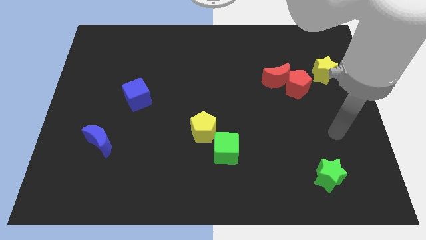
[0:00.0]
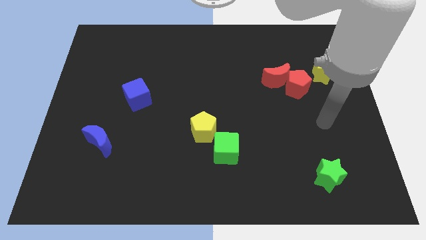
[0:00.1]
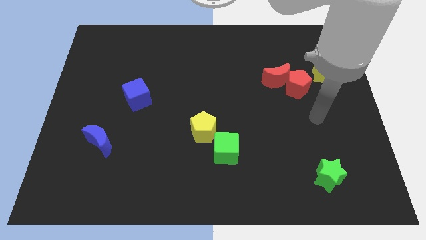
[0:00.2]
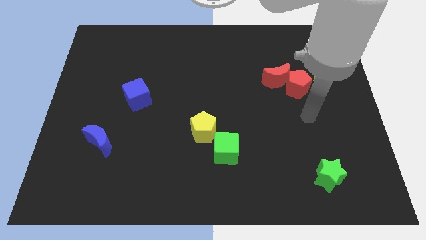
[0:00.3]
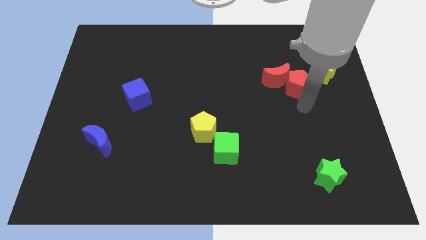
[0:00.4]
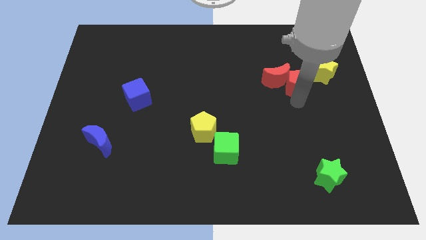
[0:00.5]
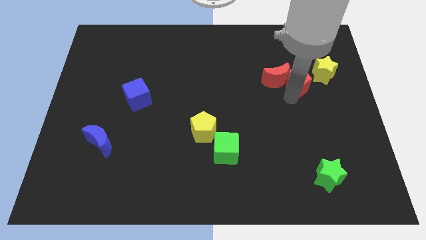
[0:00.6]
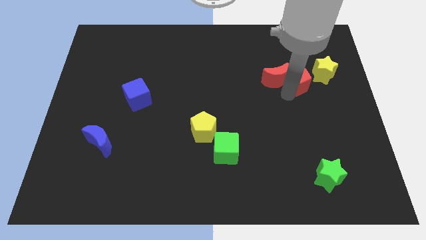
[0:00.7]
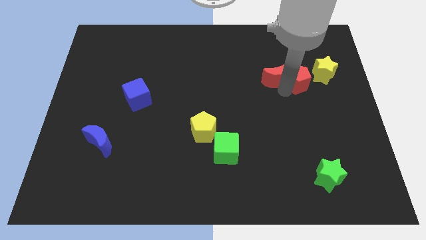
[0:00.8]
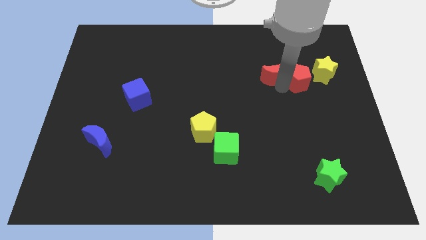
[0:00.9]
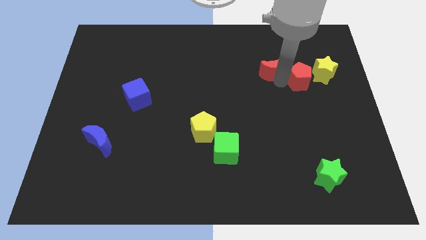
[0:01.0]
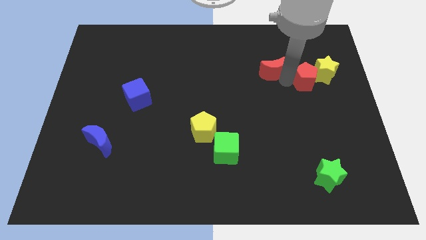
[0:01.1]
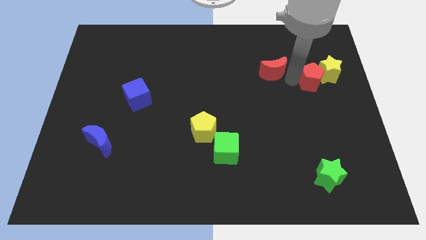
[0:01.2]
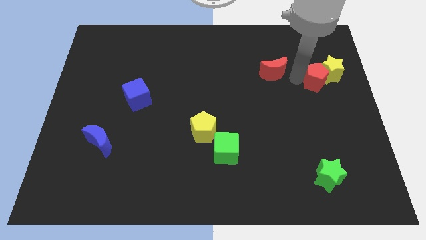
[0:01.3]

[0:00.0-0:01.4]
separate the red moon from the red pentagon

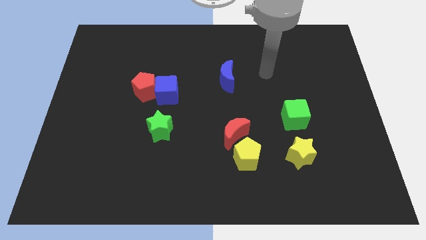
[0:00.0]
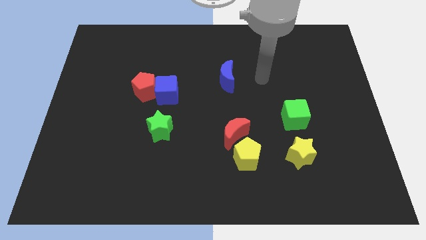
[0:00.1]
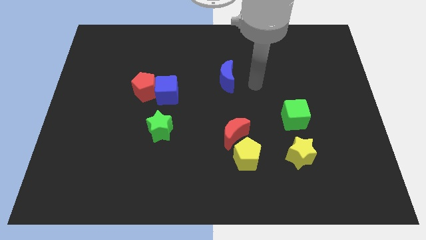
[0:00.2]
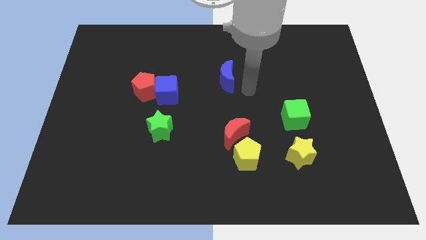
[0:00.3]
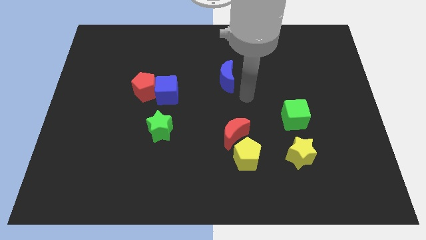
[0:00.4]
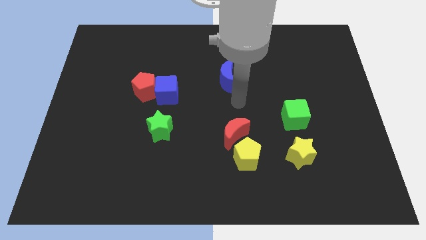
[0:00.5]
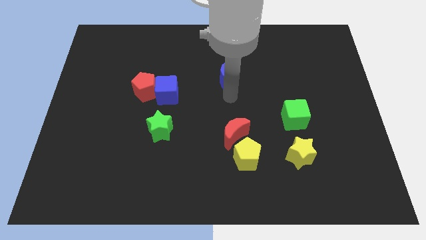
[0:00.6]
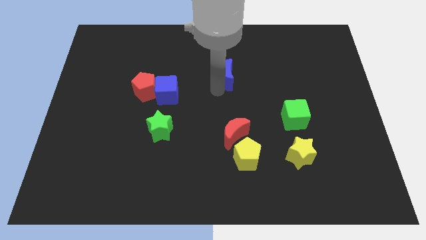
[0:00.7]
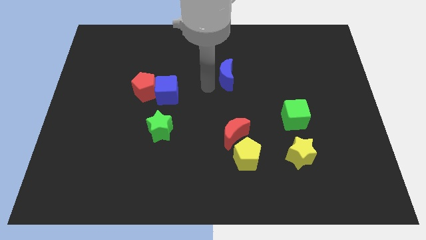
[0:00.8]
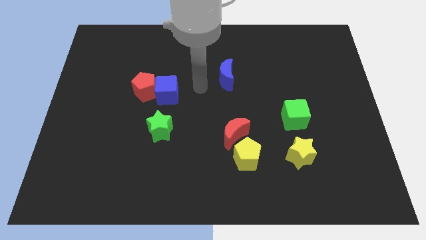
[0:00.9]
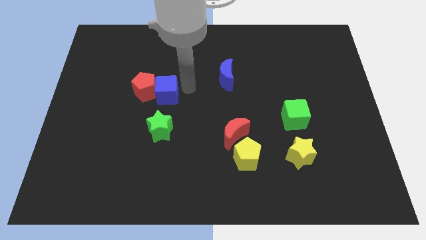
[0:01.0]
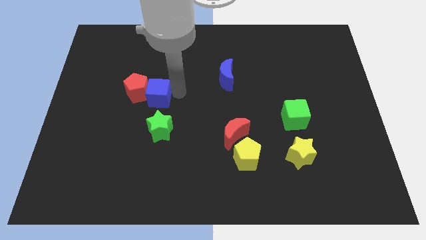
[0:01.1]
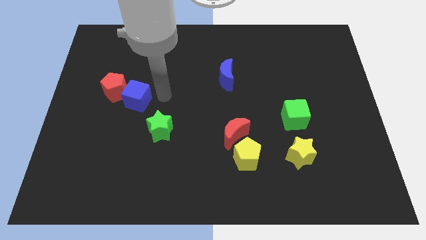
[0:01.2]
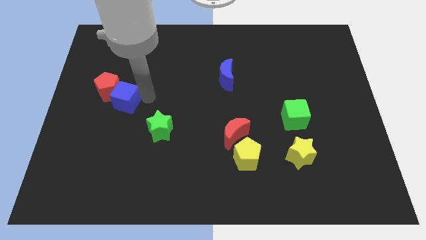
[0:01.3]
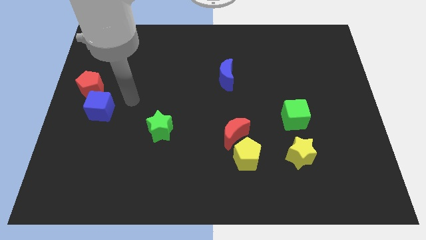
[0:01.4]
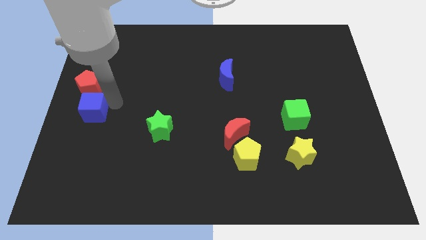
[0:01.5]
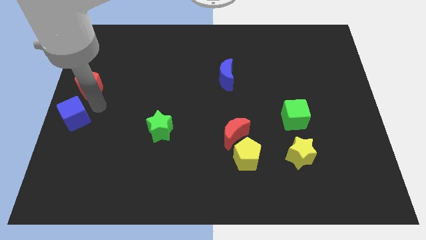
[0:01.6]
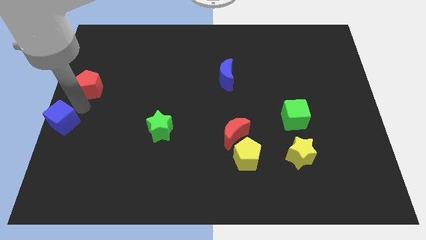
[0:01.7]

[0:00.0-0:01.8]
pull the red pentagon apart from the blue cube

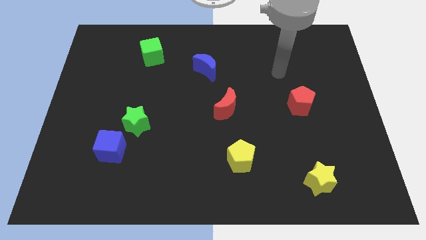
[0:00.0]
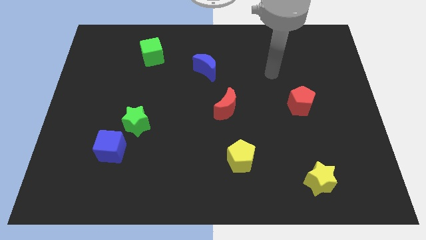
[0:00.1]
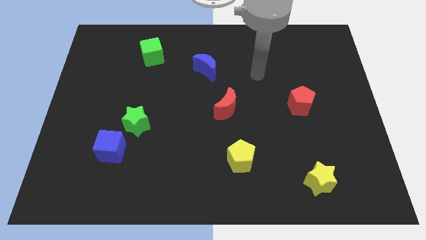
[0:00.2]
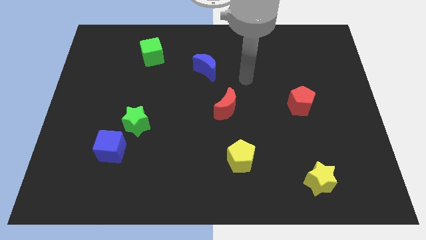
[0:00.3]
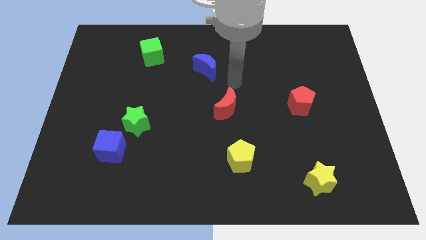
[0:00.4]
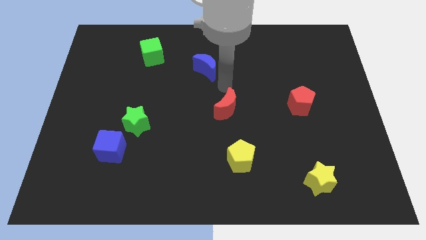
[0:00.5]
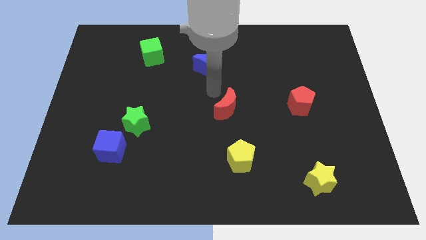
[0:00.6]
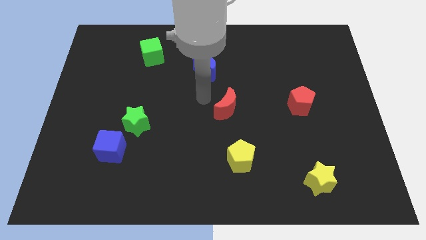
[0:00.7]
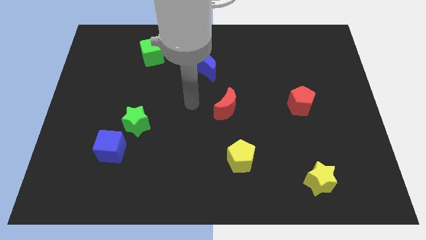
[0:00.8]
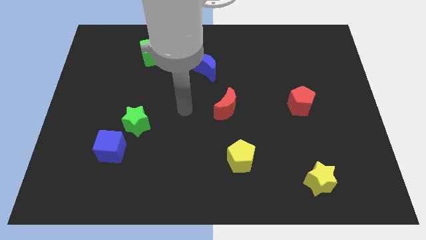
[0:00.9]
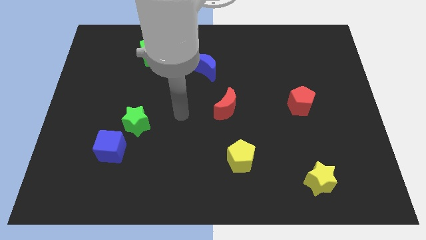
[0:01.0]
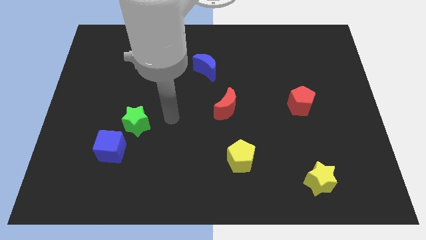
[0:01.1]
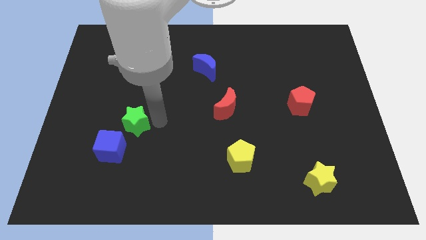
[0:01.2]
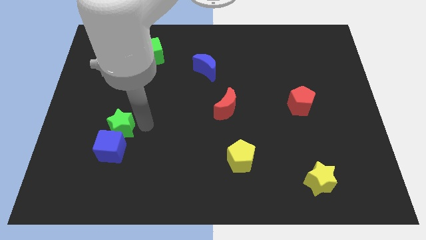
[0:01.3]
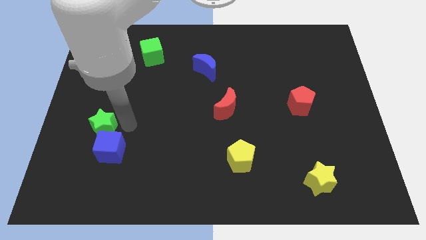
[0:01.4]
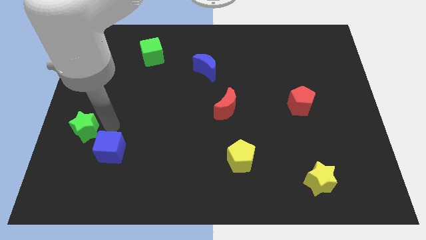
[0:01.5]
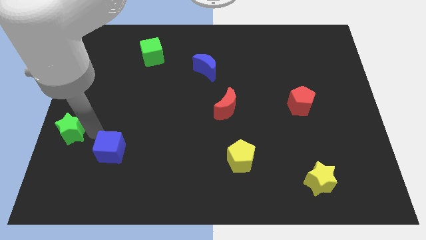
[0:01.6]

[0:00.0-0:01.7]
move the blue cube away from the green star

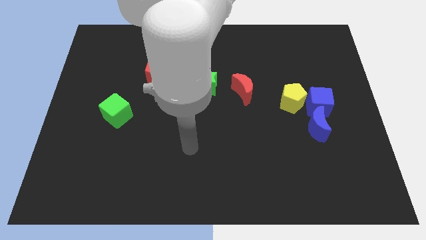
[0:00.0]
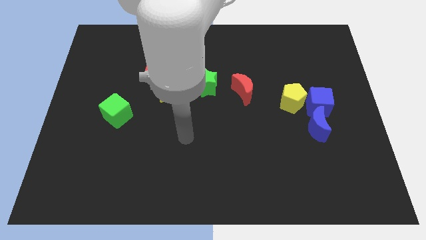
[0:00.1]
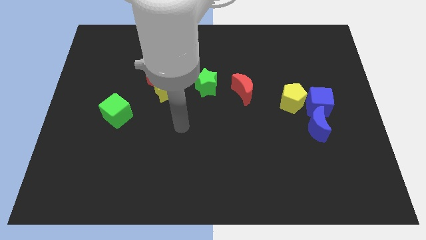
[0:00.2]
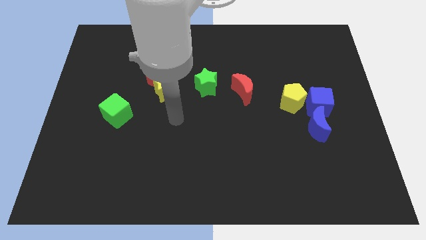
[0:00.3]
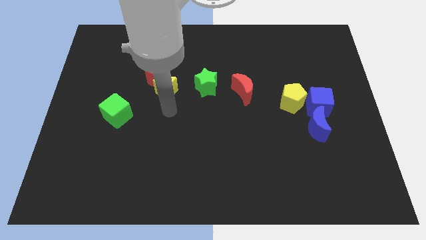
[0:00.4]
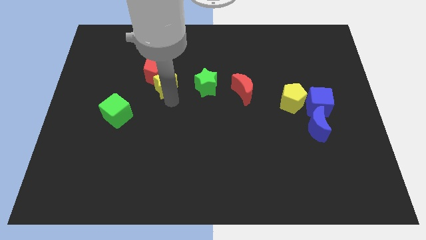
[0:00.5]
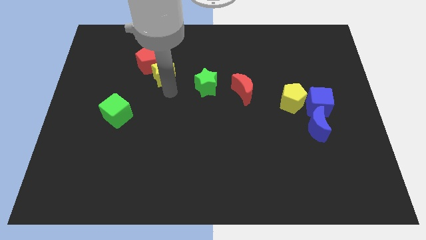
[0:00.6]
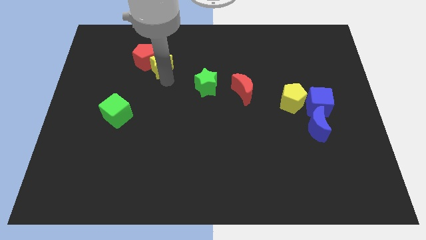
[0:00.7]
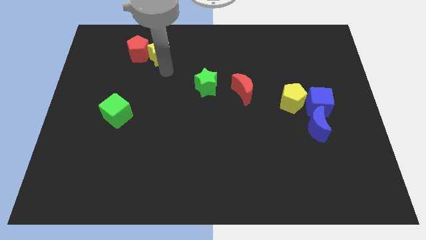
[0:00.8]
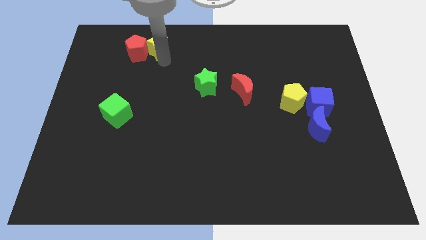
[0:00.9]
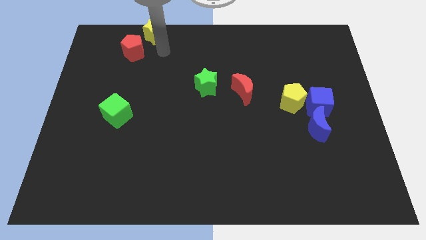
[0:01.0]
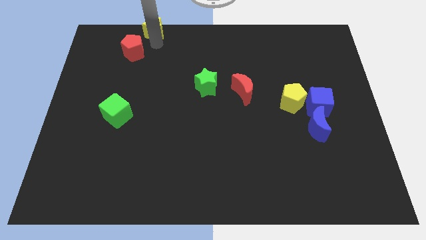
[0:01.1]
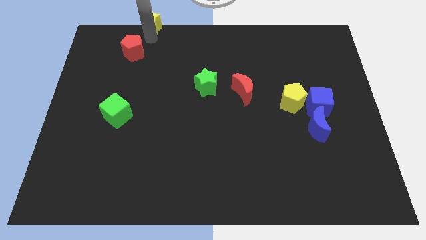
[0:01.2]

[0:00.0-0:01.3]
pull the red pentagon apart from the yellow star

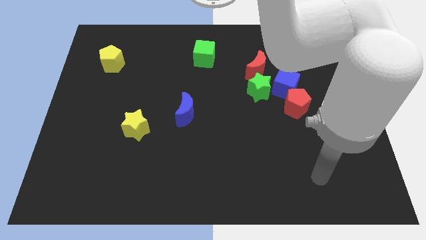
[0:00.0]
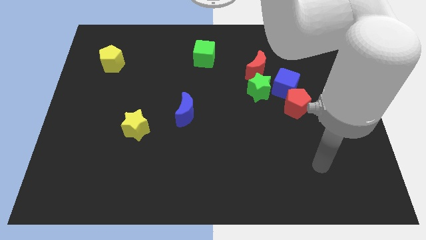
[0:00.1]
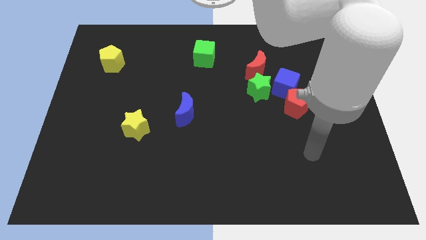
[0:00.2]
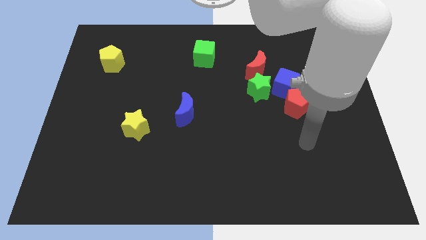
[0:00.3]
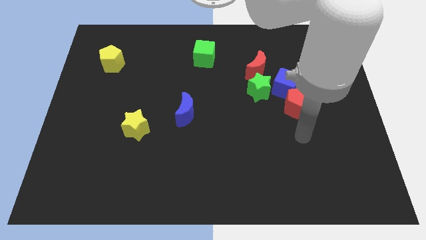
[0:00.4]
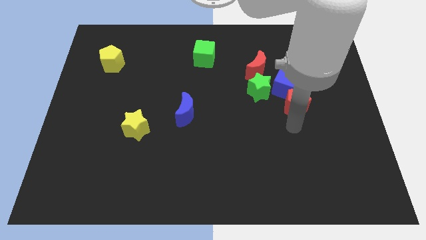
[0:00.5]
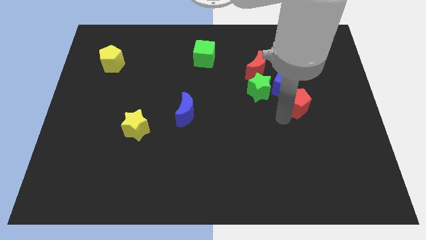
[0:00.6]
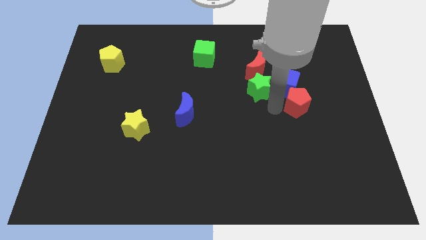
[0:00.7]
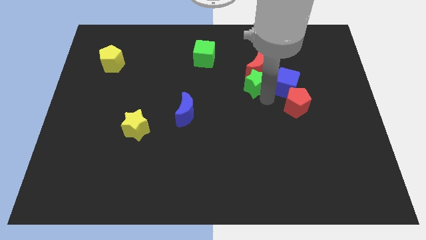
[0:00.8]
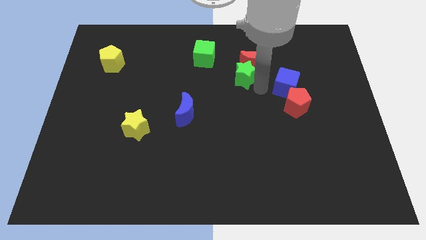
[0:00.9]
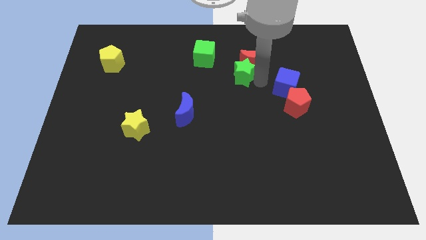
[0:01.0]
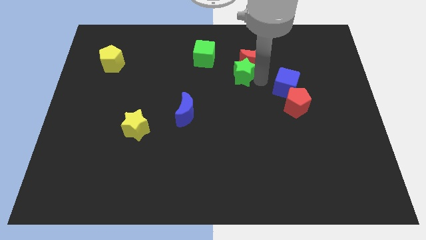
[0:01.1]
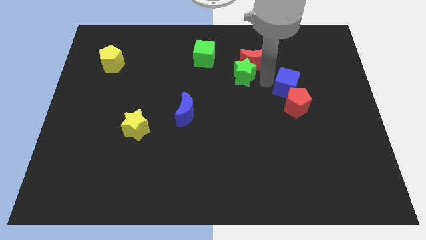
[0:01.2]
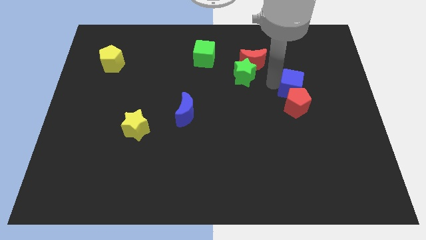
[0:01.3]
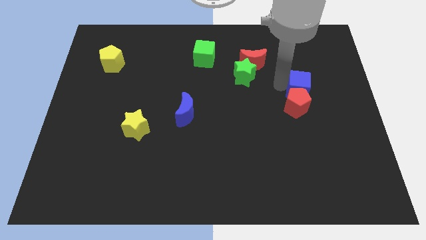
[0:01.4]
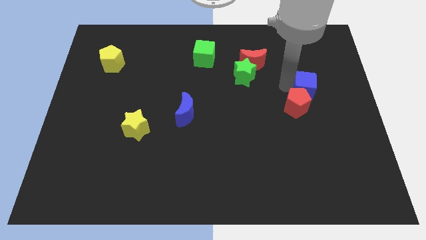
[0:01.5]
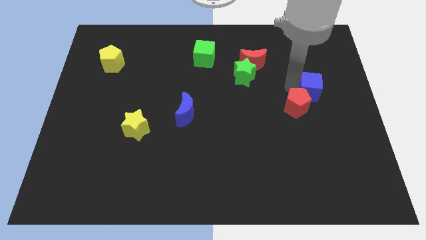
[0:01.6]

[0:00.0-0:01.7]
pull the blue cube apart from the red pentagon, green star, and red moon

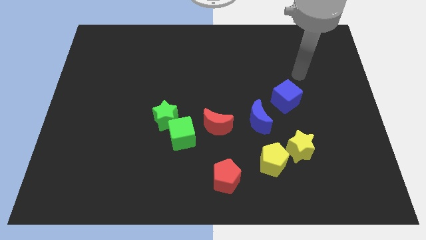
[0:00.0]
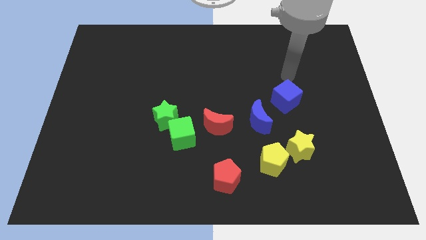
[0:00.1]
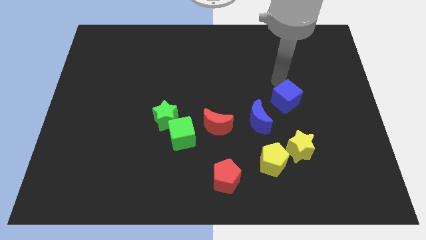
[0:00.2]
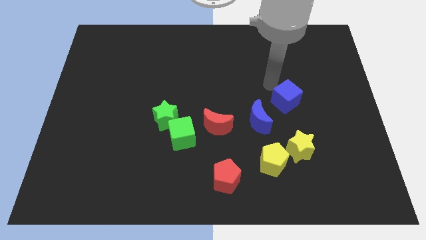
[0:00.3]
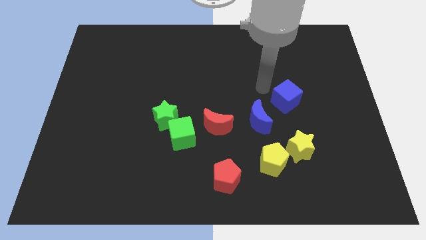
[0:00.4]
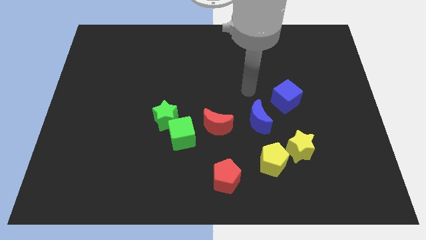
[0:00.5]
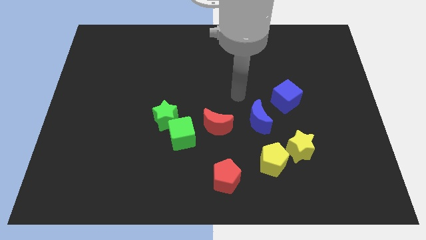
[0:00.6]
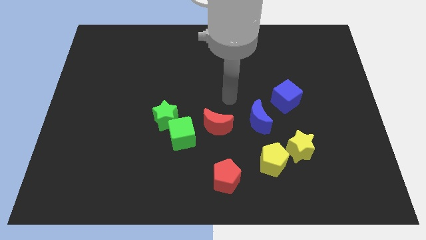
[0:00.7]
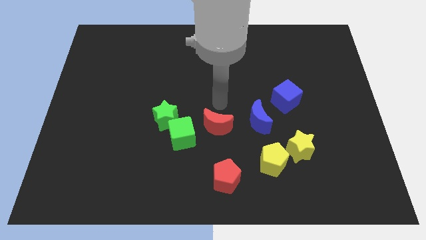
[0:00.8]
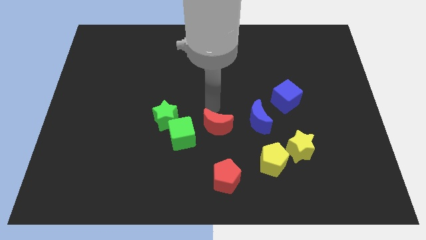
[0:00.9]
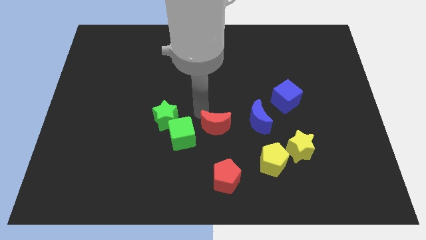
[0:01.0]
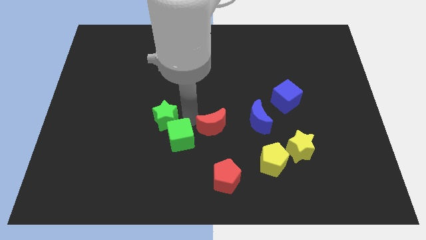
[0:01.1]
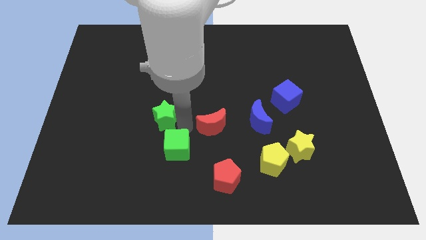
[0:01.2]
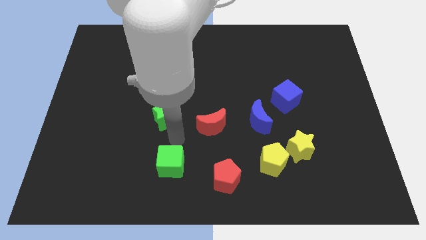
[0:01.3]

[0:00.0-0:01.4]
separate the green star from the green cube
